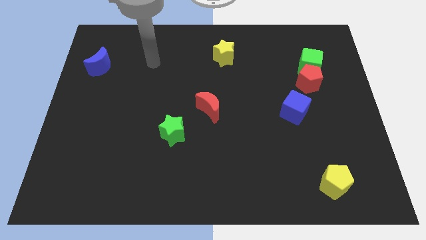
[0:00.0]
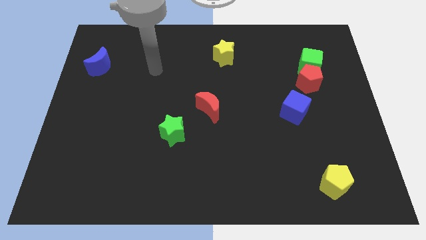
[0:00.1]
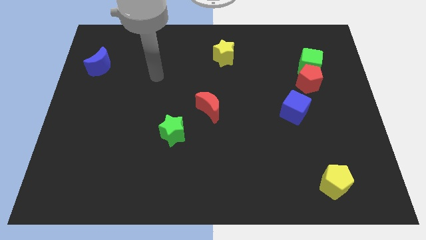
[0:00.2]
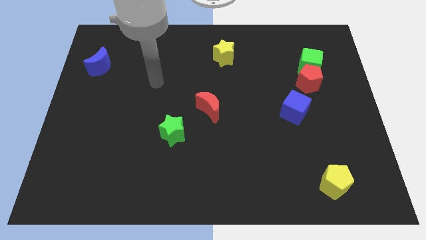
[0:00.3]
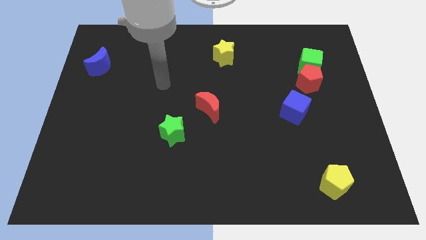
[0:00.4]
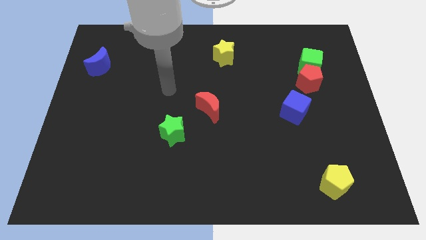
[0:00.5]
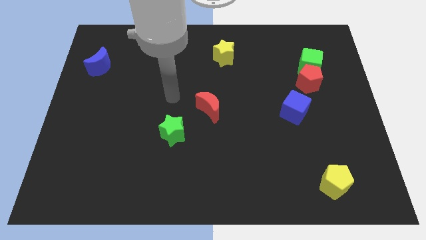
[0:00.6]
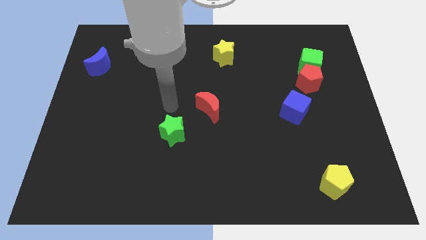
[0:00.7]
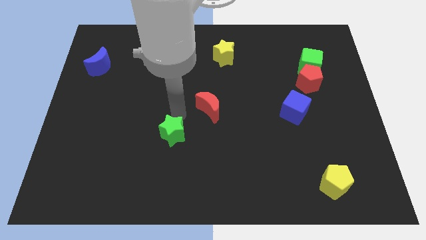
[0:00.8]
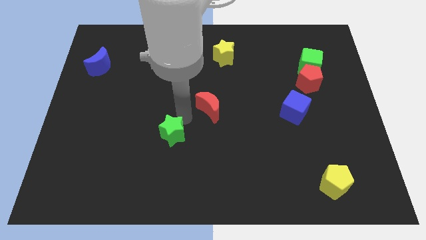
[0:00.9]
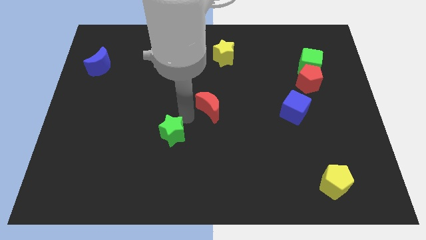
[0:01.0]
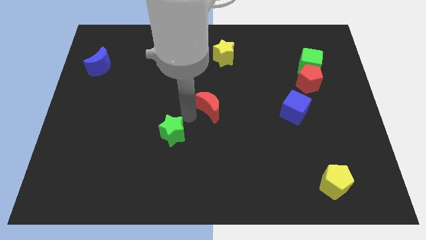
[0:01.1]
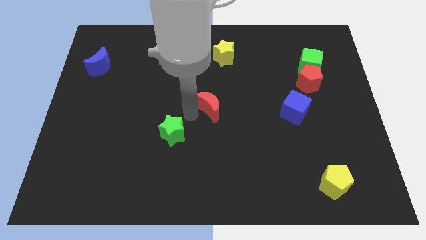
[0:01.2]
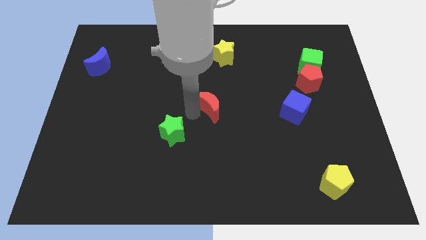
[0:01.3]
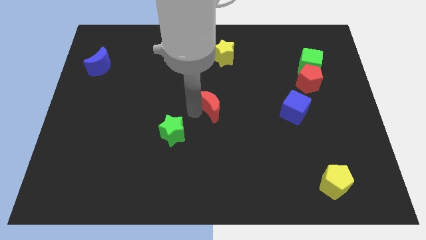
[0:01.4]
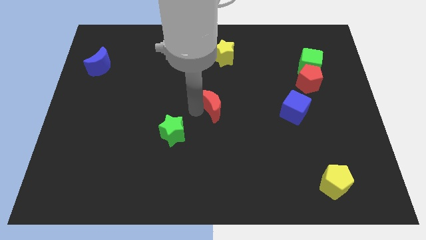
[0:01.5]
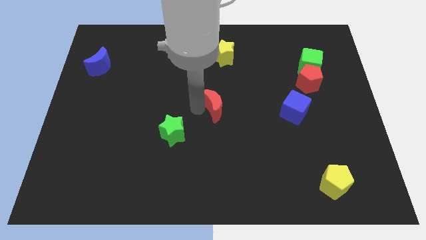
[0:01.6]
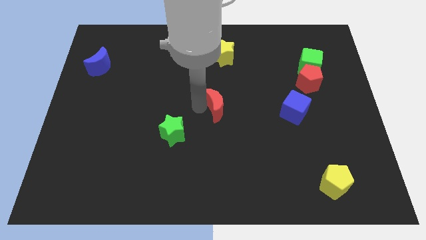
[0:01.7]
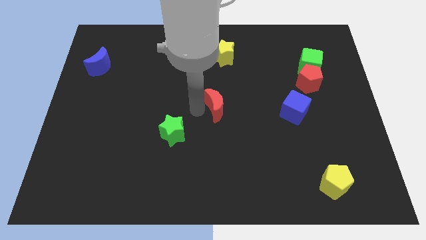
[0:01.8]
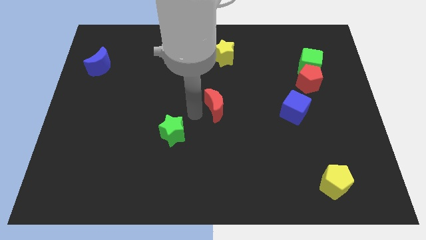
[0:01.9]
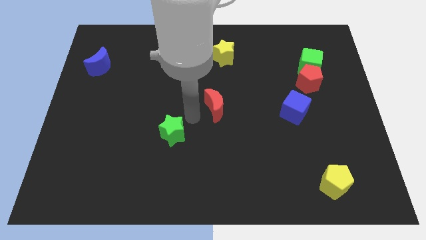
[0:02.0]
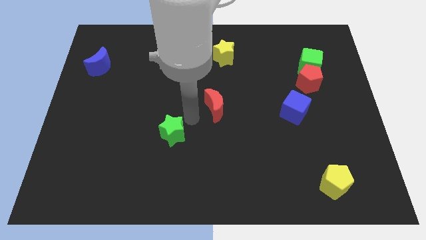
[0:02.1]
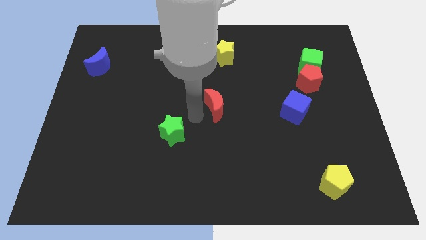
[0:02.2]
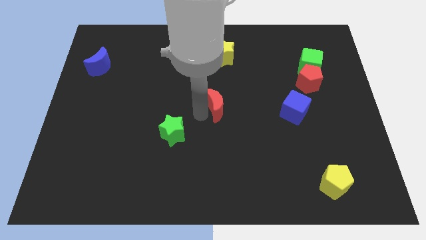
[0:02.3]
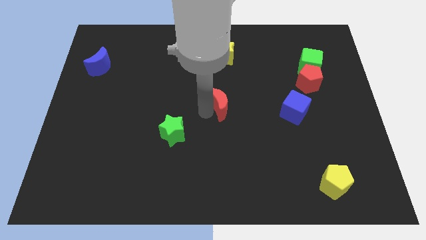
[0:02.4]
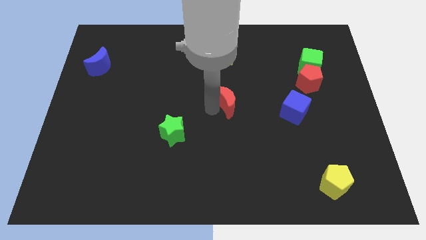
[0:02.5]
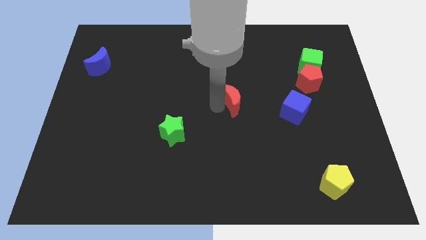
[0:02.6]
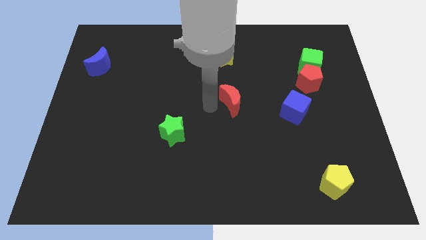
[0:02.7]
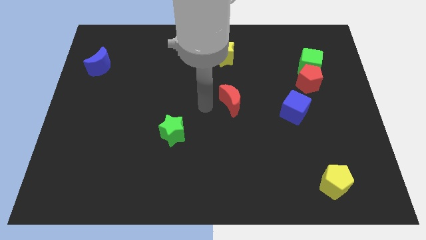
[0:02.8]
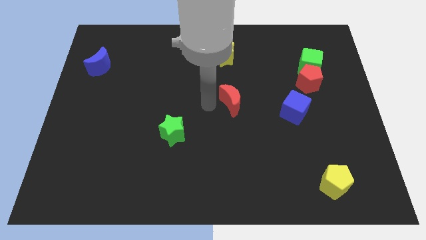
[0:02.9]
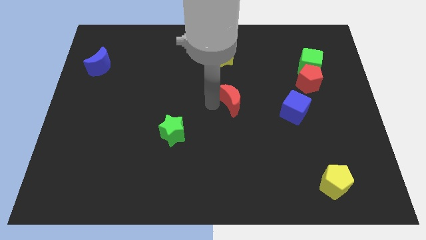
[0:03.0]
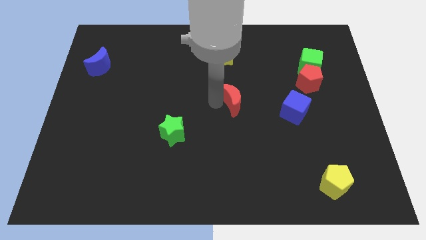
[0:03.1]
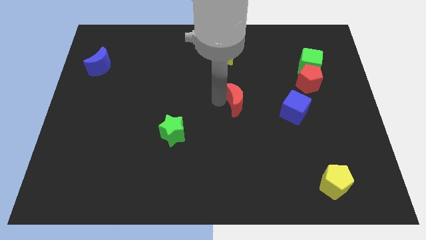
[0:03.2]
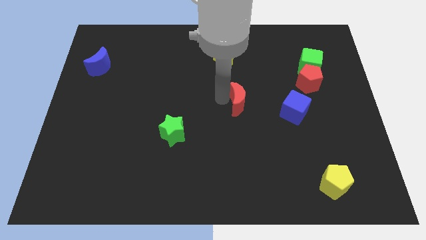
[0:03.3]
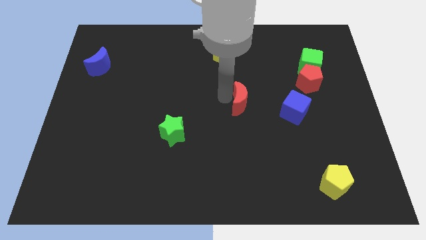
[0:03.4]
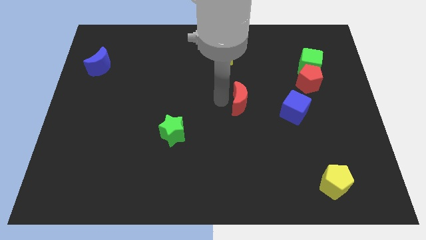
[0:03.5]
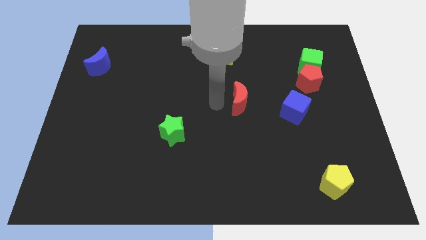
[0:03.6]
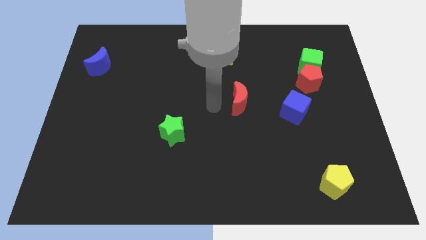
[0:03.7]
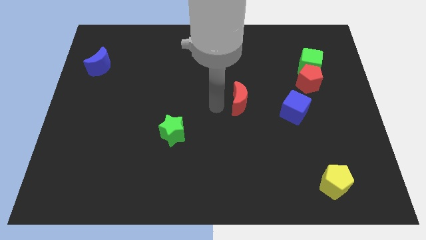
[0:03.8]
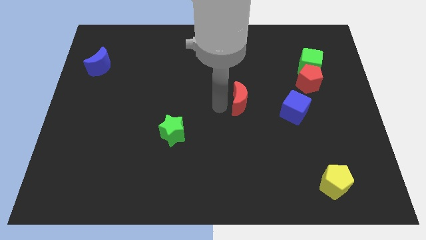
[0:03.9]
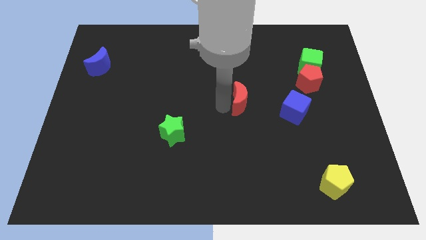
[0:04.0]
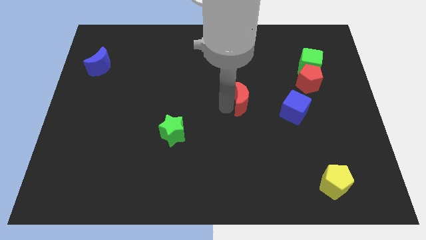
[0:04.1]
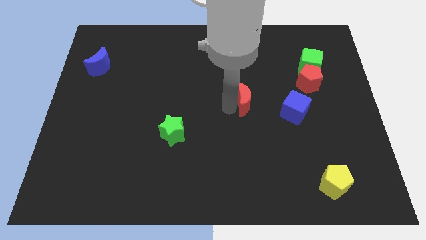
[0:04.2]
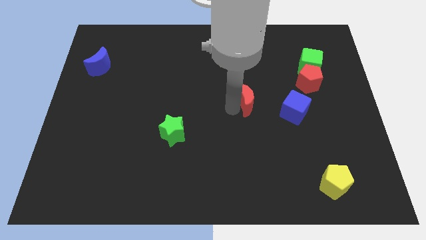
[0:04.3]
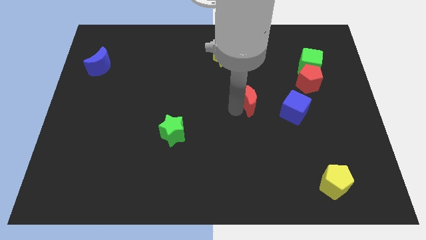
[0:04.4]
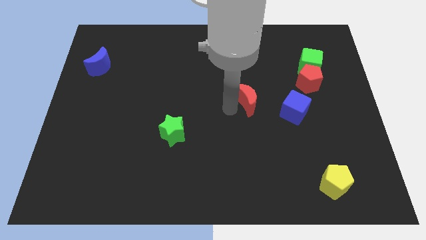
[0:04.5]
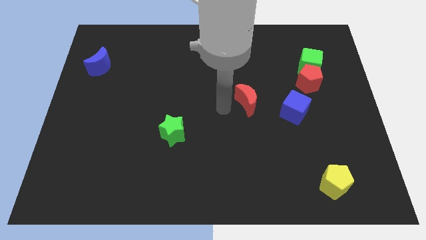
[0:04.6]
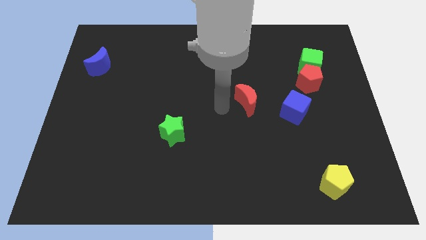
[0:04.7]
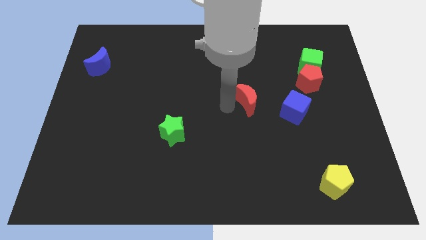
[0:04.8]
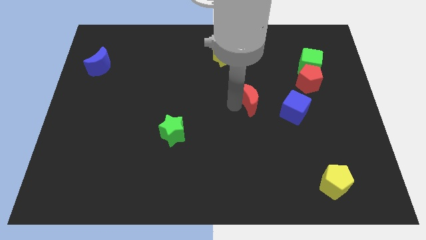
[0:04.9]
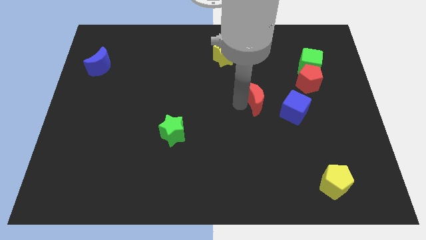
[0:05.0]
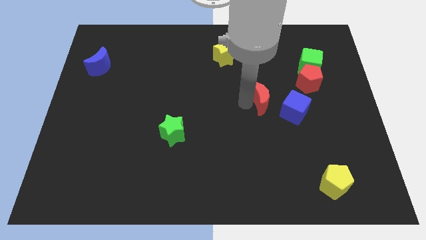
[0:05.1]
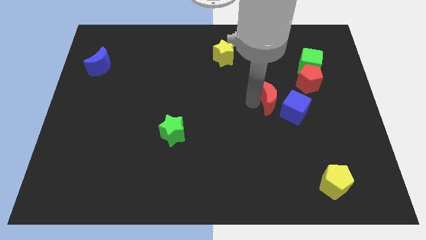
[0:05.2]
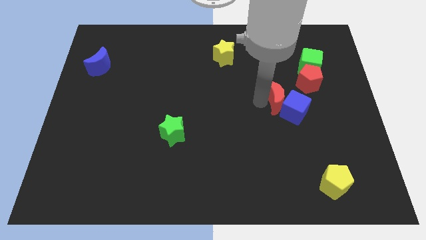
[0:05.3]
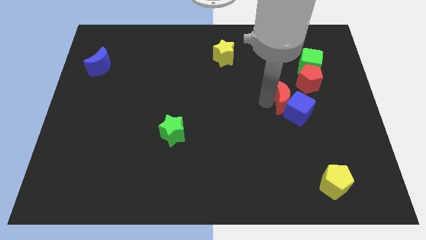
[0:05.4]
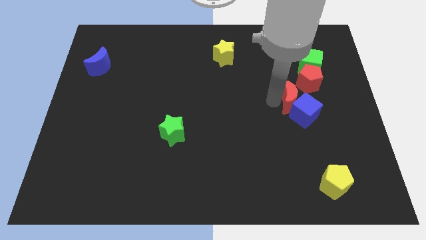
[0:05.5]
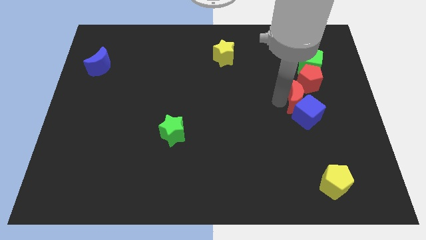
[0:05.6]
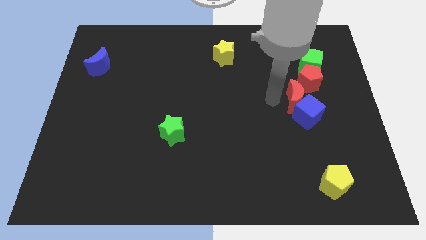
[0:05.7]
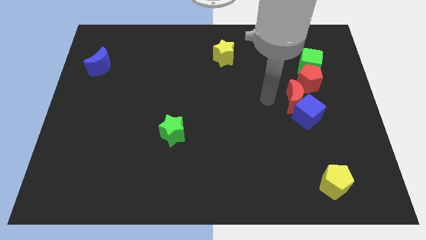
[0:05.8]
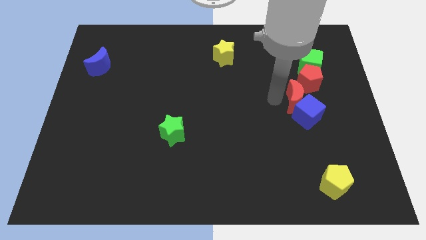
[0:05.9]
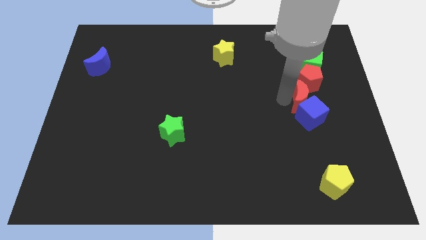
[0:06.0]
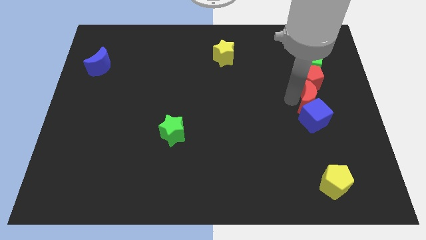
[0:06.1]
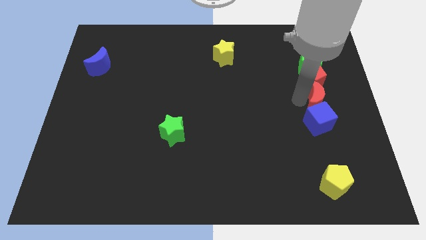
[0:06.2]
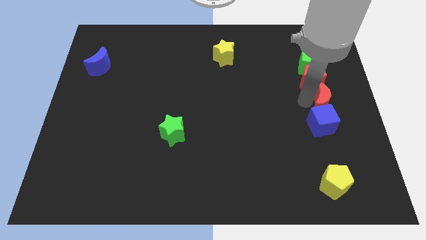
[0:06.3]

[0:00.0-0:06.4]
slide the red moon to the right side

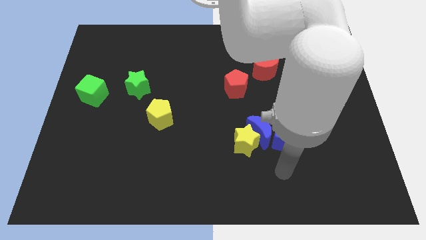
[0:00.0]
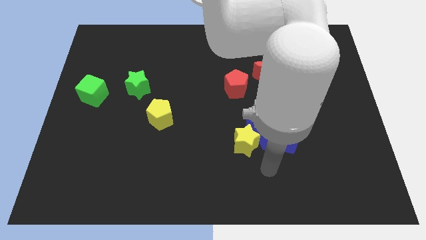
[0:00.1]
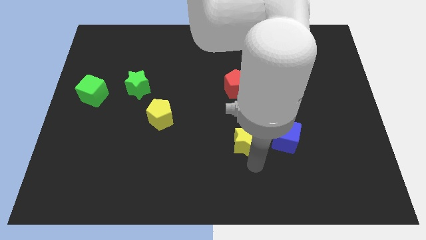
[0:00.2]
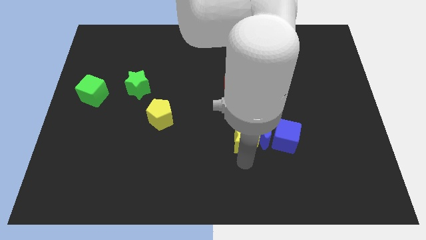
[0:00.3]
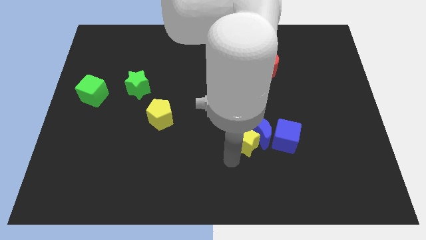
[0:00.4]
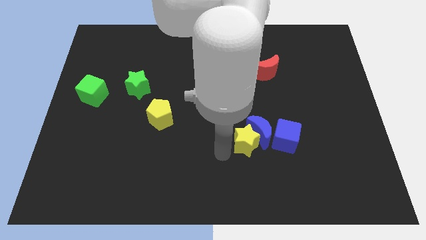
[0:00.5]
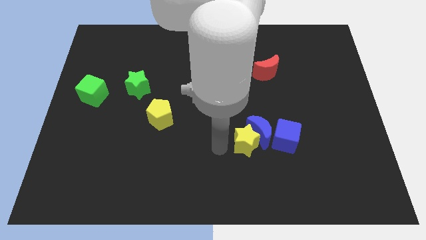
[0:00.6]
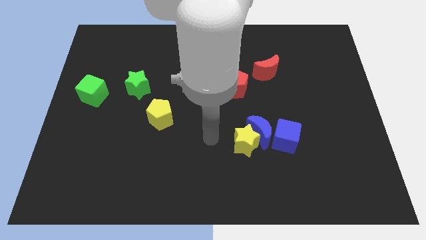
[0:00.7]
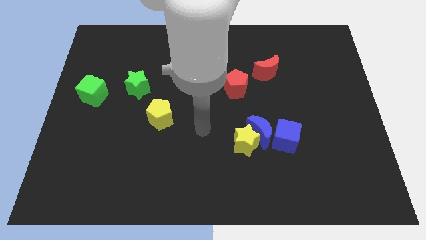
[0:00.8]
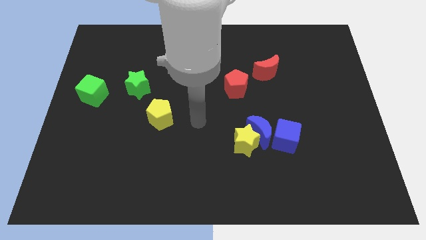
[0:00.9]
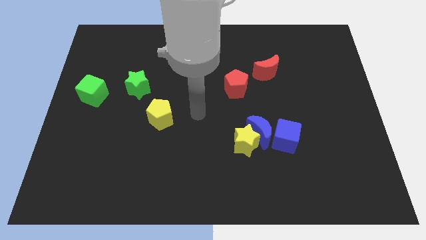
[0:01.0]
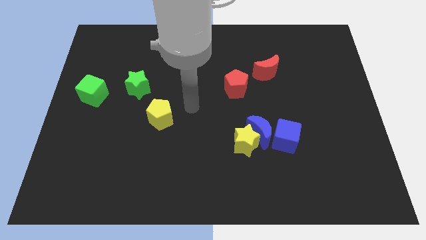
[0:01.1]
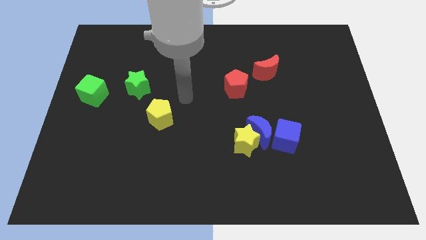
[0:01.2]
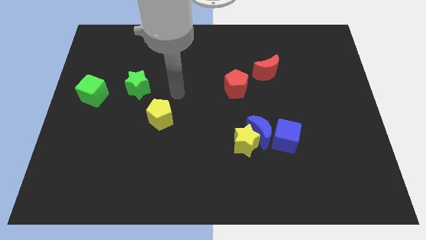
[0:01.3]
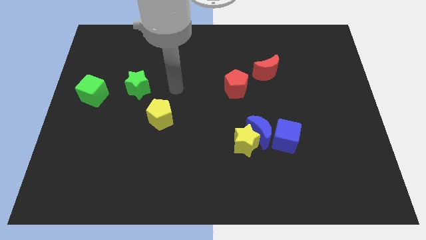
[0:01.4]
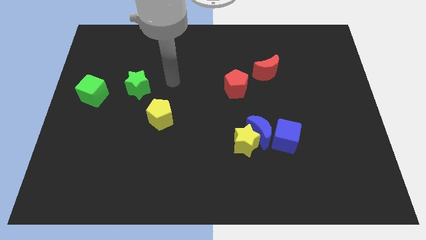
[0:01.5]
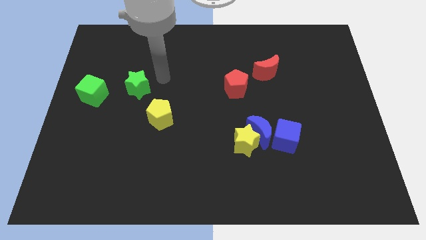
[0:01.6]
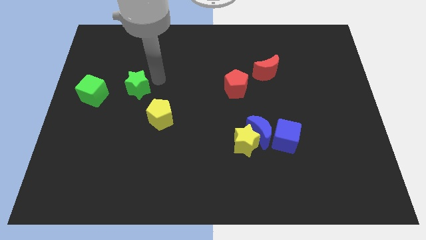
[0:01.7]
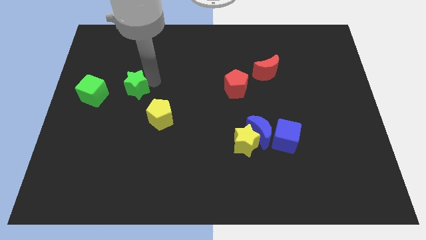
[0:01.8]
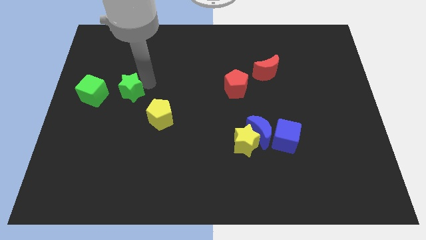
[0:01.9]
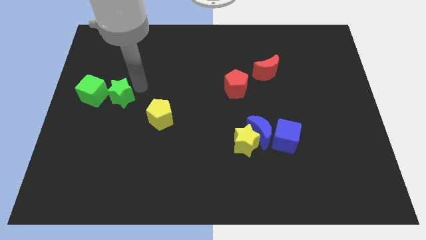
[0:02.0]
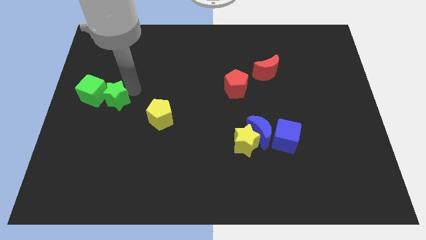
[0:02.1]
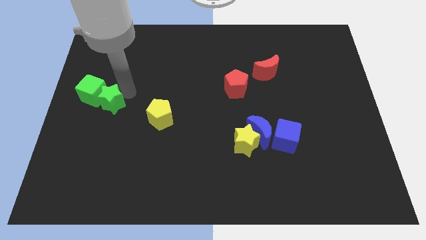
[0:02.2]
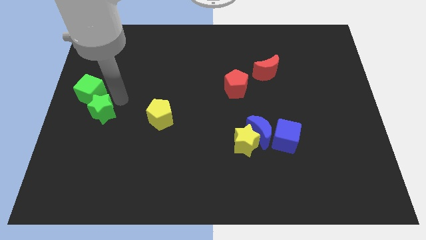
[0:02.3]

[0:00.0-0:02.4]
move the green star to the left side
